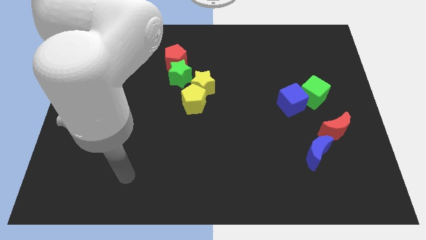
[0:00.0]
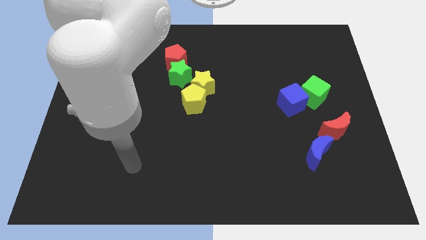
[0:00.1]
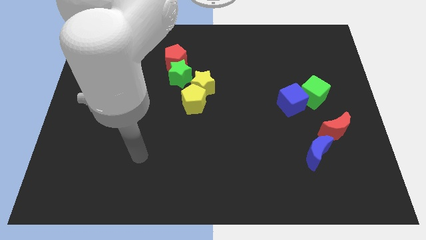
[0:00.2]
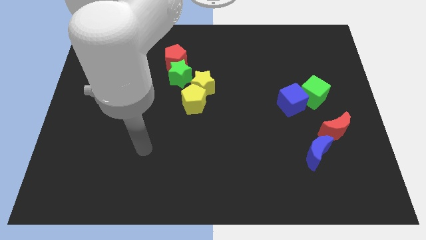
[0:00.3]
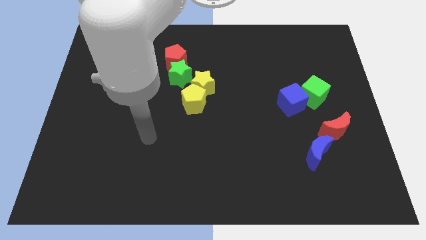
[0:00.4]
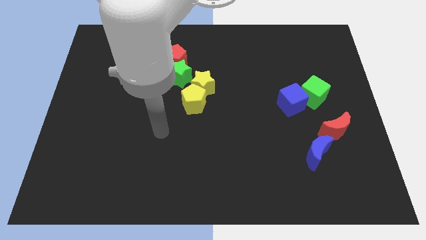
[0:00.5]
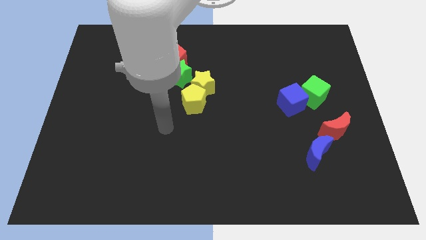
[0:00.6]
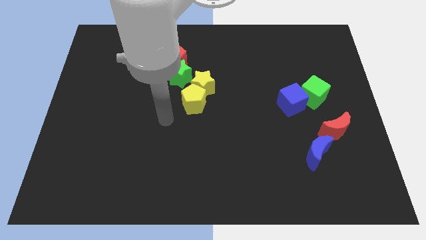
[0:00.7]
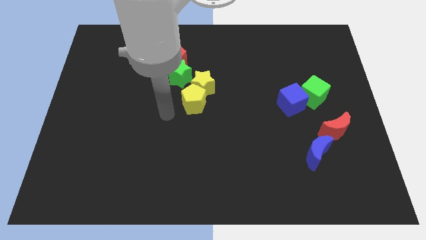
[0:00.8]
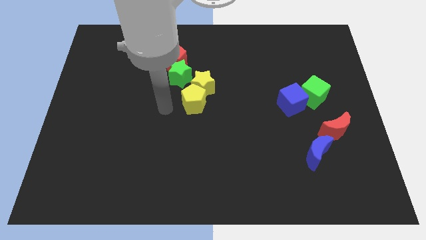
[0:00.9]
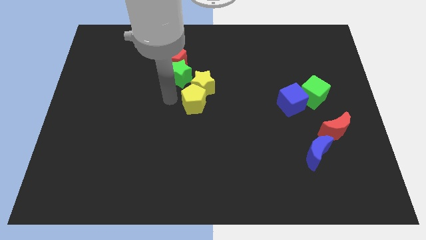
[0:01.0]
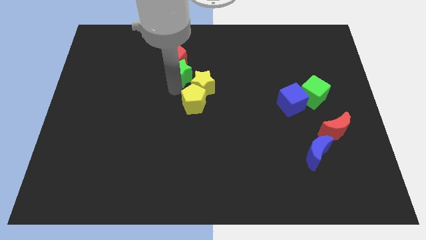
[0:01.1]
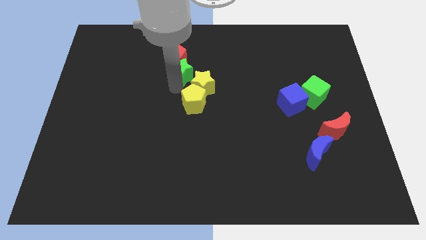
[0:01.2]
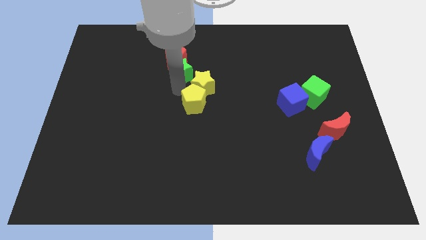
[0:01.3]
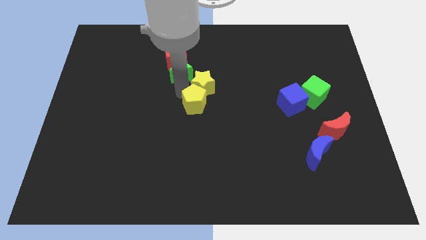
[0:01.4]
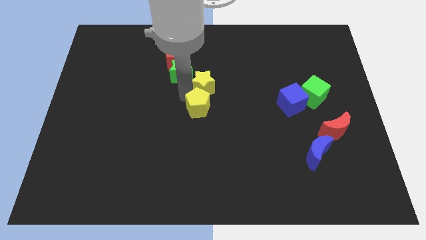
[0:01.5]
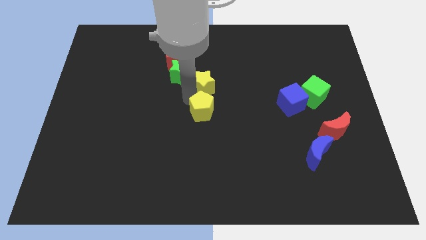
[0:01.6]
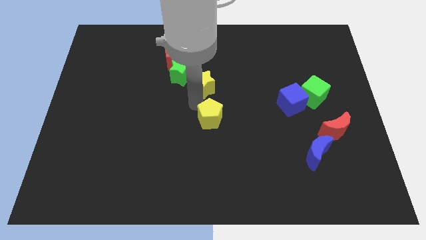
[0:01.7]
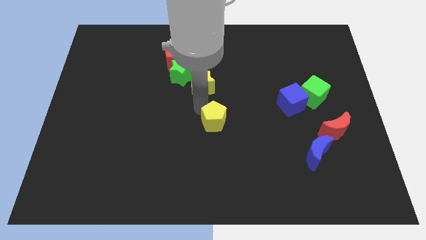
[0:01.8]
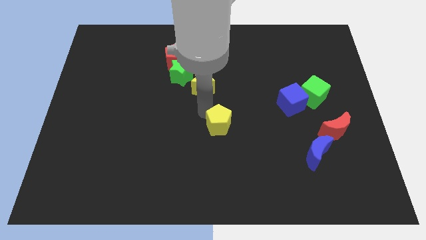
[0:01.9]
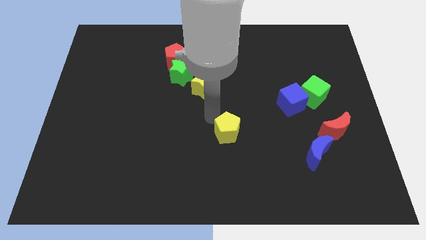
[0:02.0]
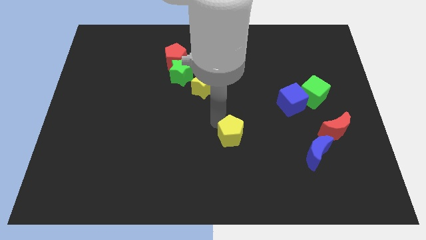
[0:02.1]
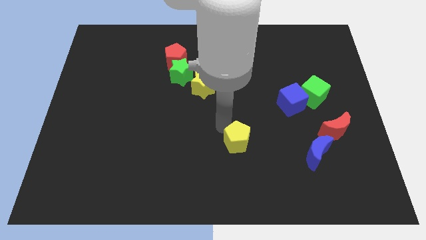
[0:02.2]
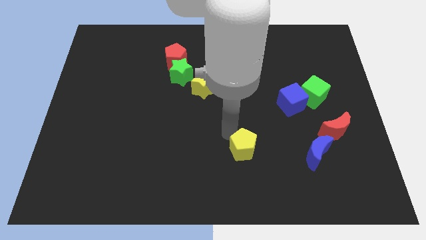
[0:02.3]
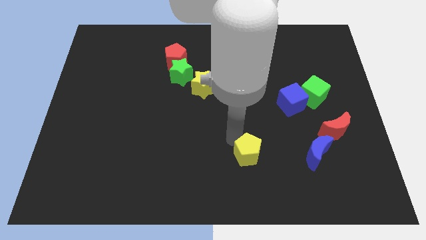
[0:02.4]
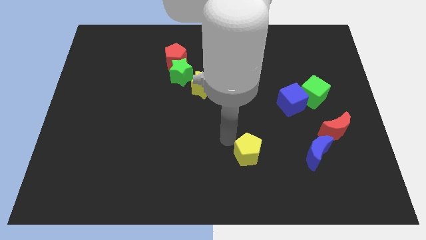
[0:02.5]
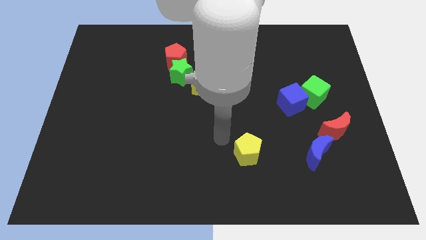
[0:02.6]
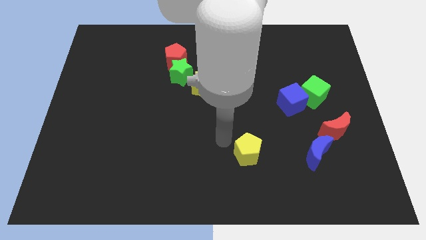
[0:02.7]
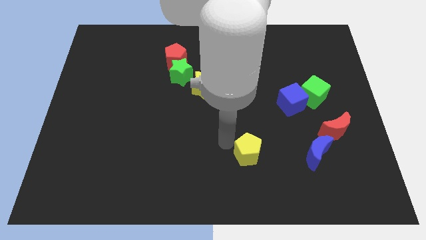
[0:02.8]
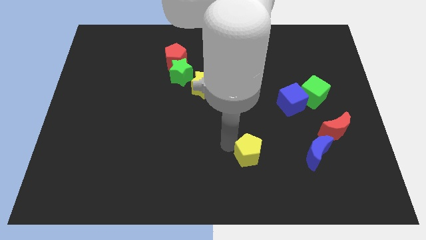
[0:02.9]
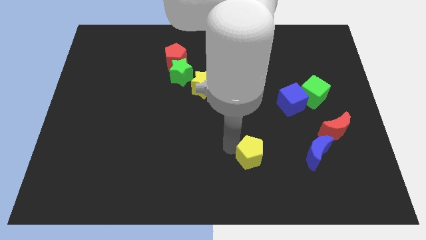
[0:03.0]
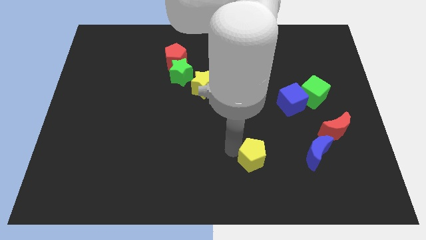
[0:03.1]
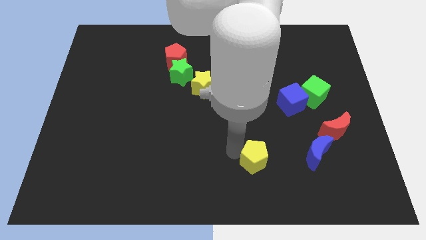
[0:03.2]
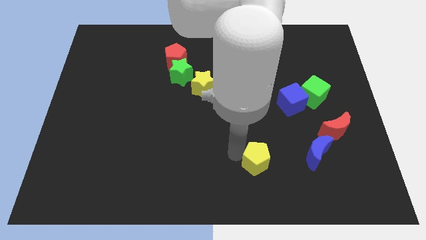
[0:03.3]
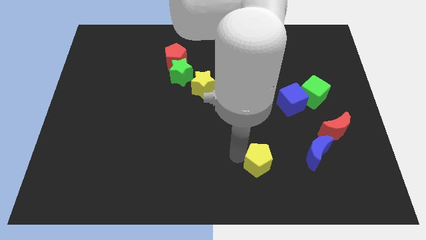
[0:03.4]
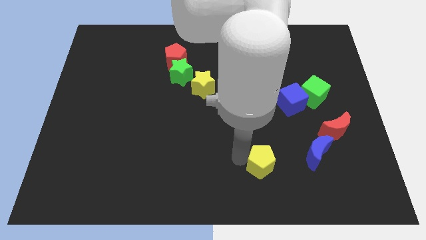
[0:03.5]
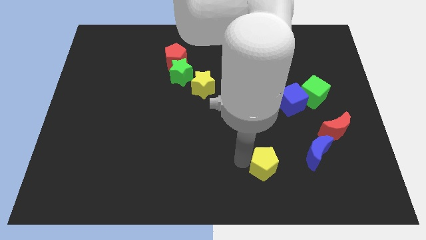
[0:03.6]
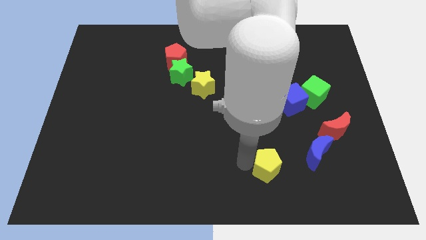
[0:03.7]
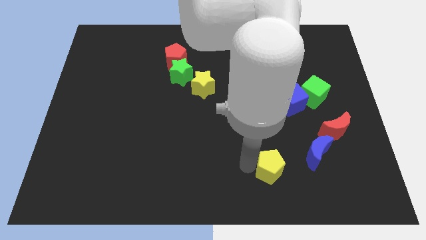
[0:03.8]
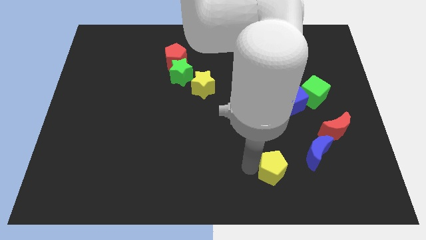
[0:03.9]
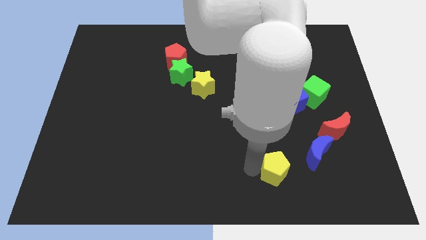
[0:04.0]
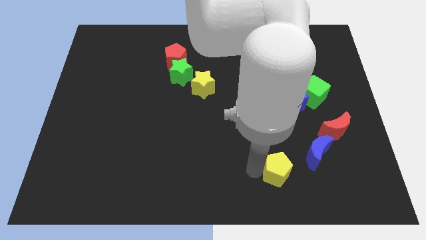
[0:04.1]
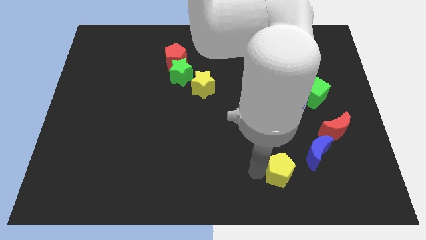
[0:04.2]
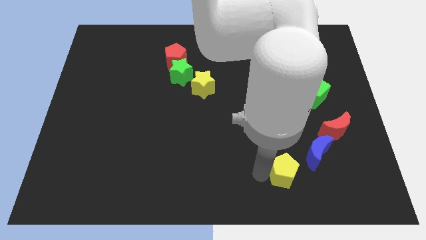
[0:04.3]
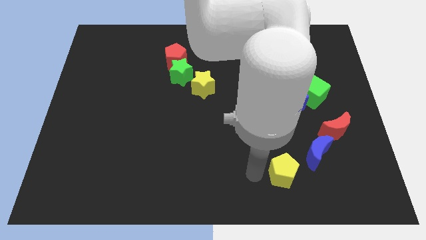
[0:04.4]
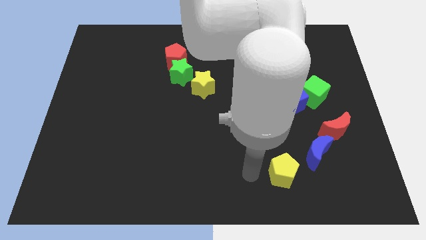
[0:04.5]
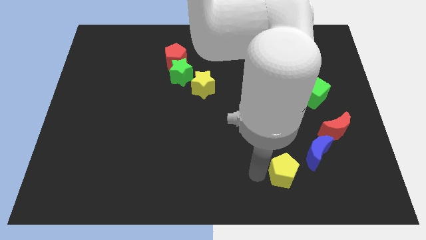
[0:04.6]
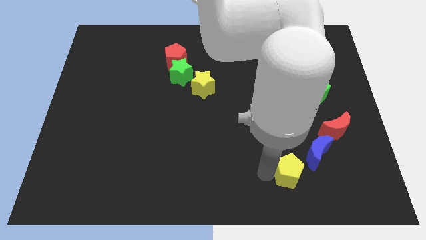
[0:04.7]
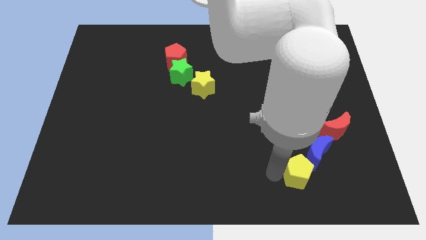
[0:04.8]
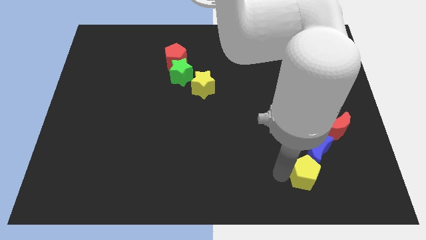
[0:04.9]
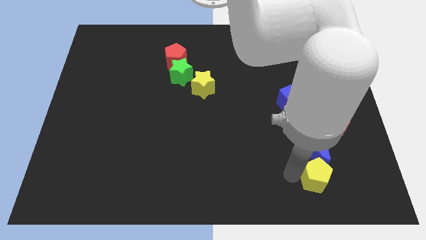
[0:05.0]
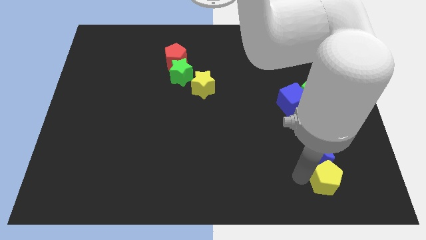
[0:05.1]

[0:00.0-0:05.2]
slide the yellow pentagon to the bottom right of the blue moon

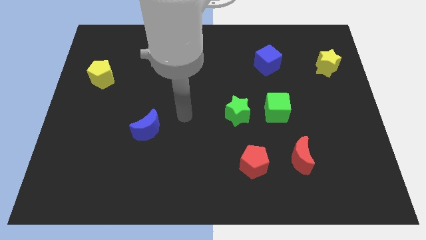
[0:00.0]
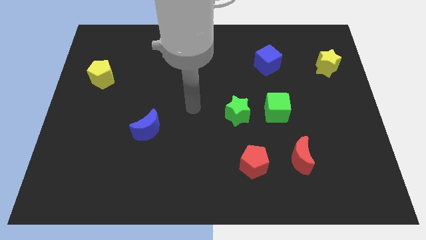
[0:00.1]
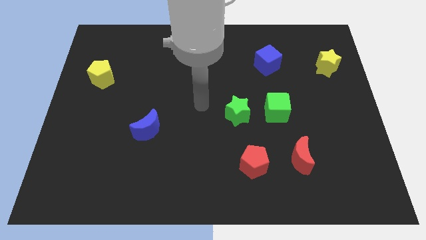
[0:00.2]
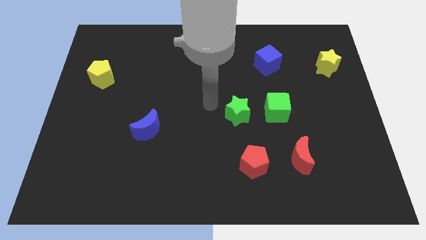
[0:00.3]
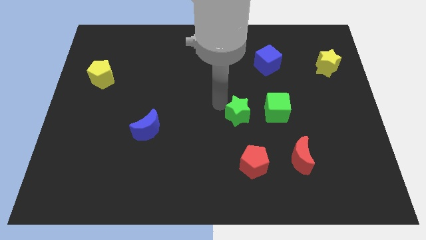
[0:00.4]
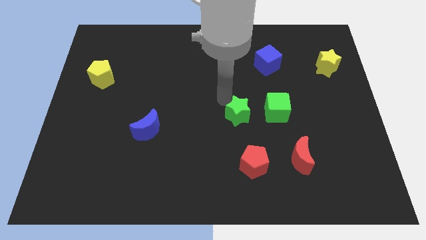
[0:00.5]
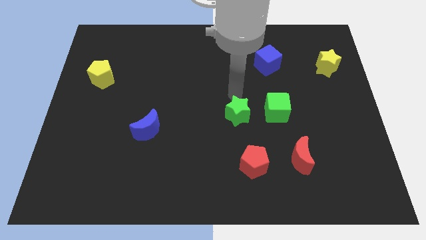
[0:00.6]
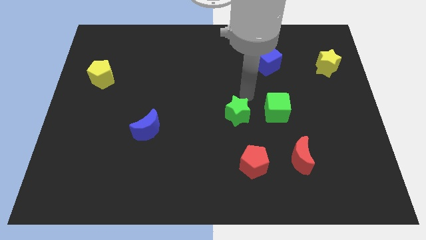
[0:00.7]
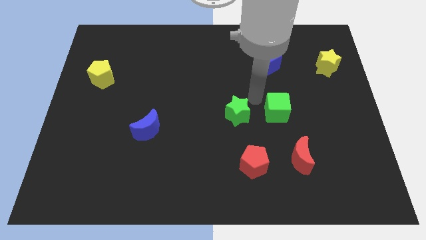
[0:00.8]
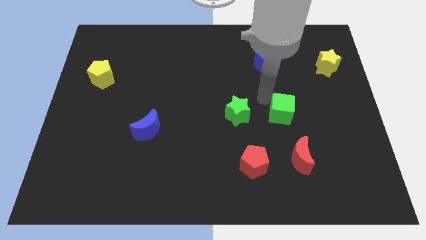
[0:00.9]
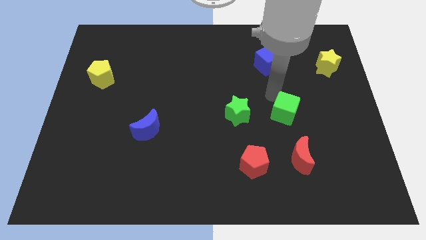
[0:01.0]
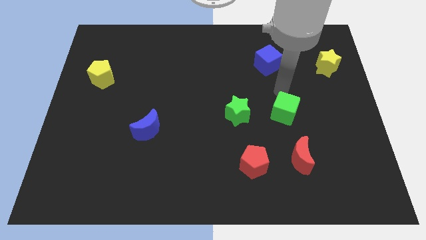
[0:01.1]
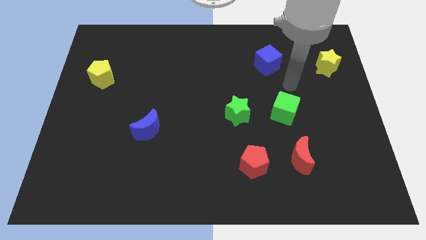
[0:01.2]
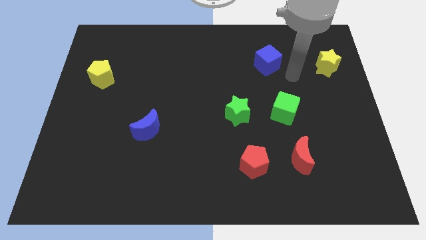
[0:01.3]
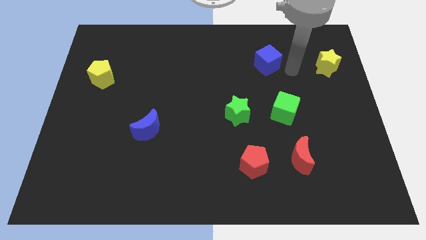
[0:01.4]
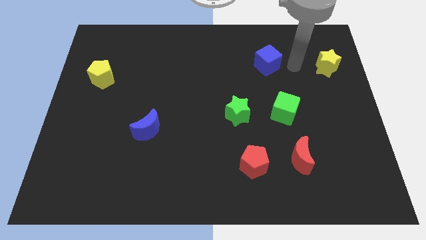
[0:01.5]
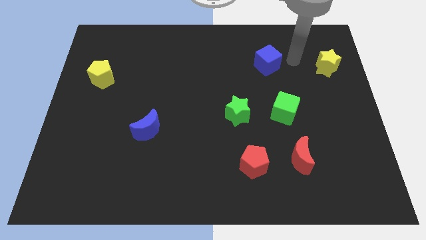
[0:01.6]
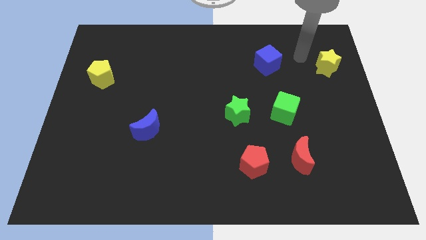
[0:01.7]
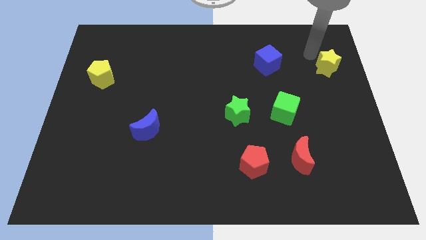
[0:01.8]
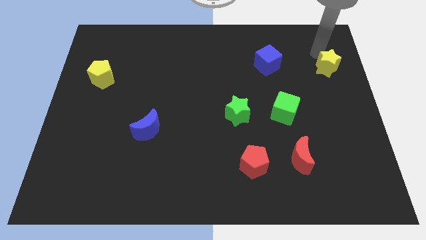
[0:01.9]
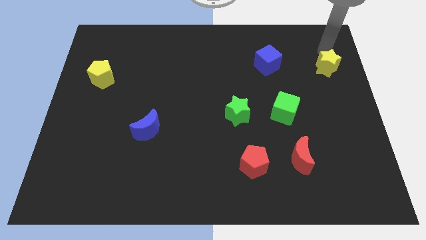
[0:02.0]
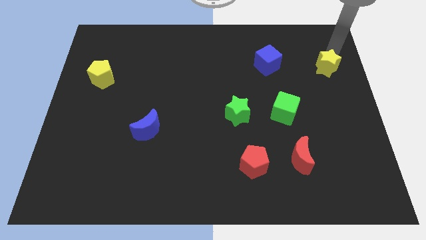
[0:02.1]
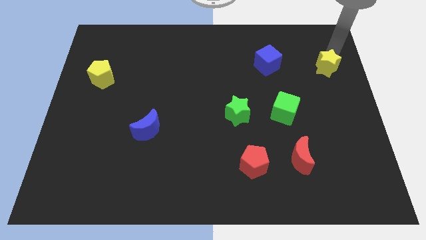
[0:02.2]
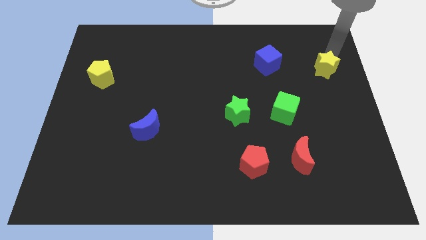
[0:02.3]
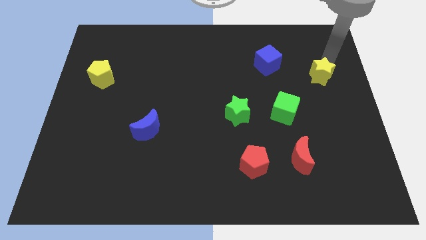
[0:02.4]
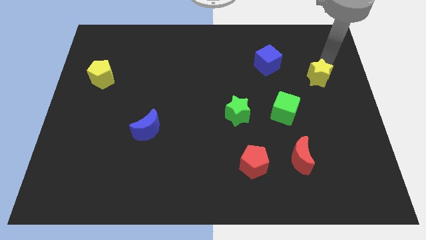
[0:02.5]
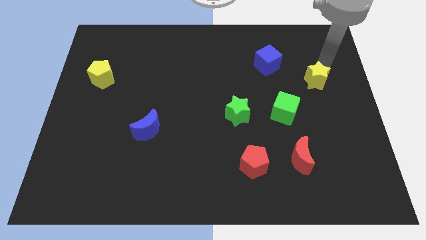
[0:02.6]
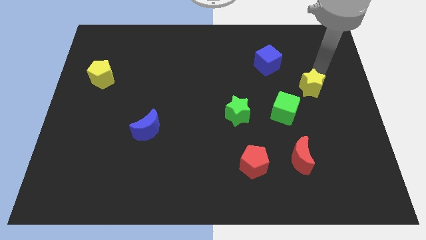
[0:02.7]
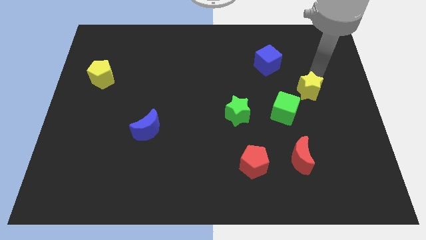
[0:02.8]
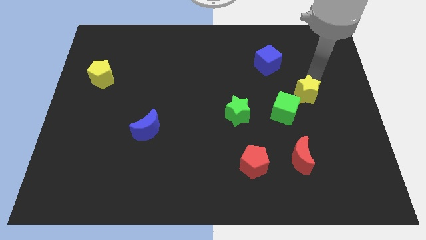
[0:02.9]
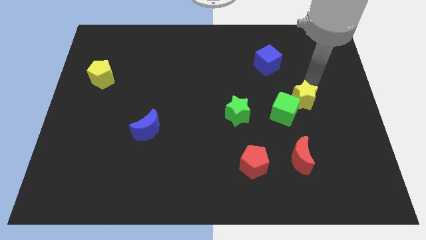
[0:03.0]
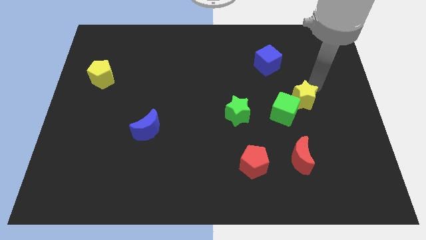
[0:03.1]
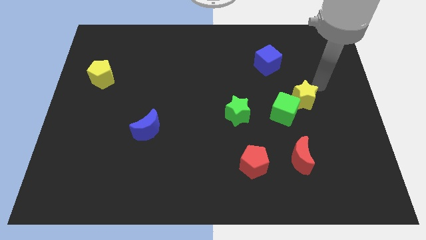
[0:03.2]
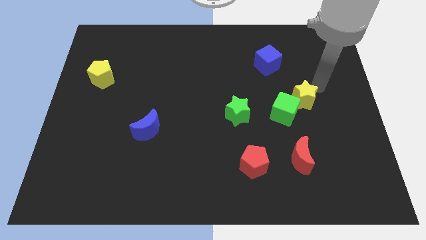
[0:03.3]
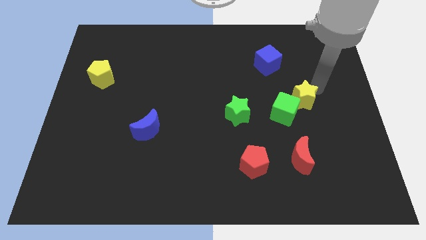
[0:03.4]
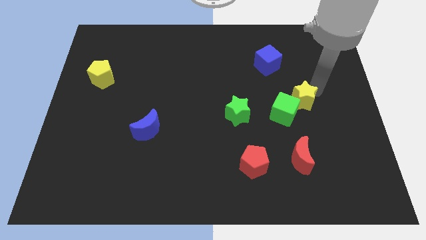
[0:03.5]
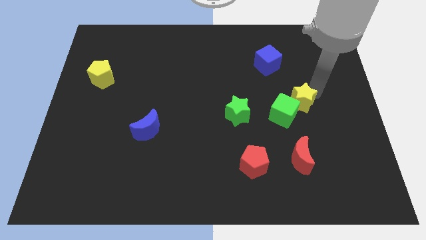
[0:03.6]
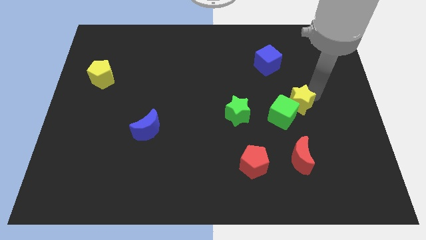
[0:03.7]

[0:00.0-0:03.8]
push the yellow star to the right side of the green star
